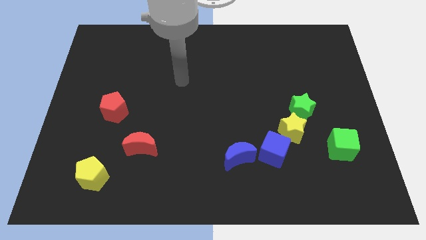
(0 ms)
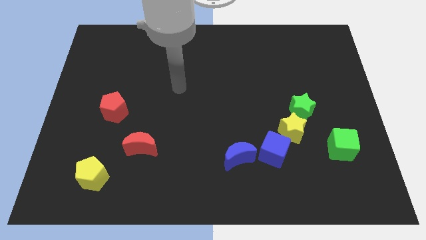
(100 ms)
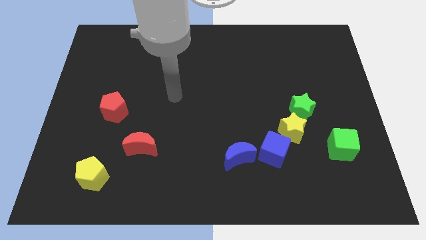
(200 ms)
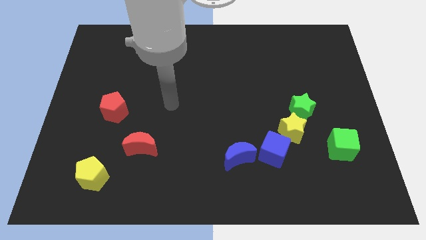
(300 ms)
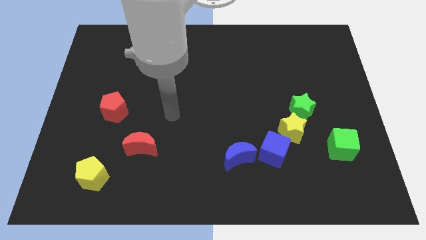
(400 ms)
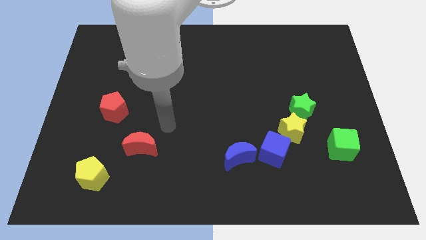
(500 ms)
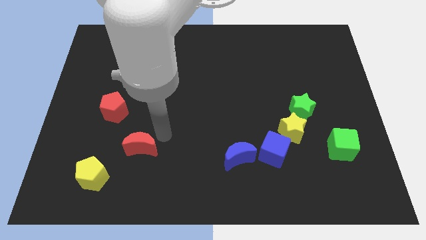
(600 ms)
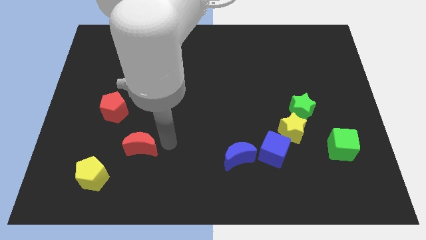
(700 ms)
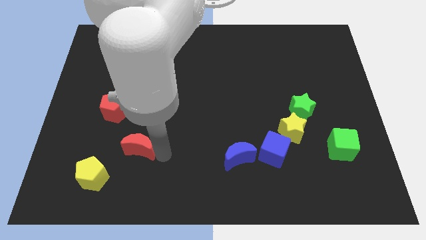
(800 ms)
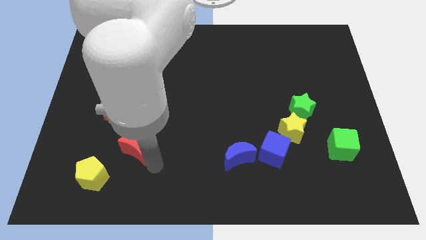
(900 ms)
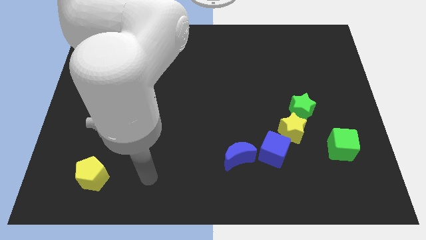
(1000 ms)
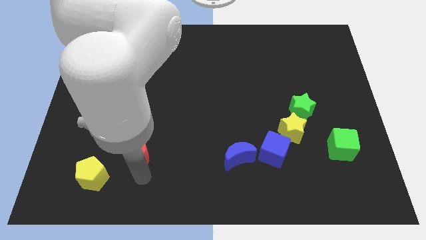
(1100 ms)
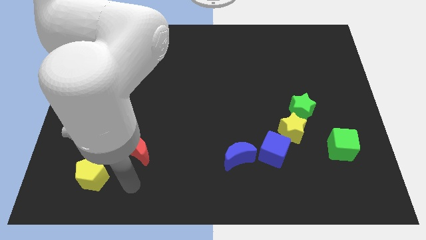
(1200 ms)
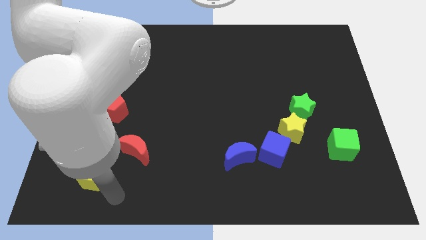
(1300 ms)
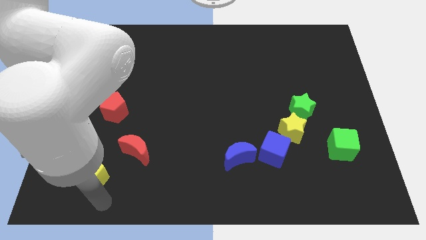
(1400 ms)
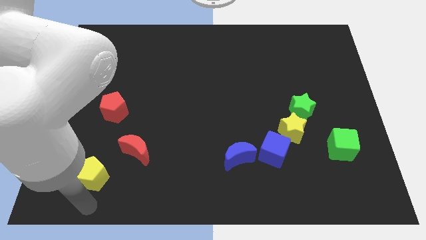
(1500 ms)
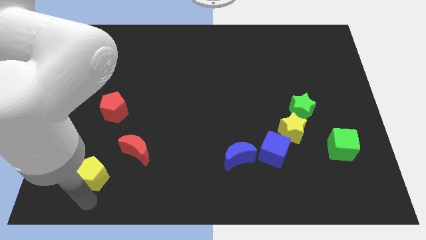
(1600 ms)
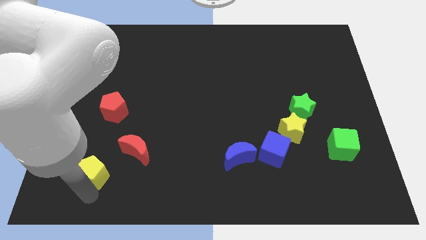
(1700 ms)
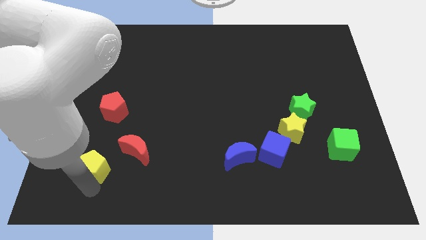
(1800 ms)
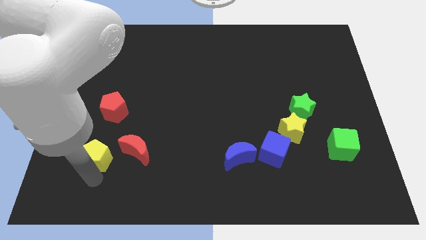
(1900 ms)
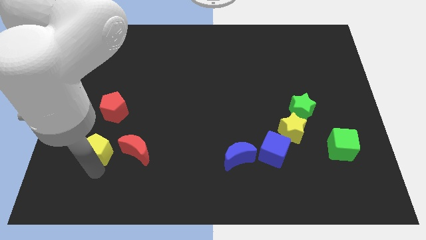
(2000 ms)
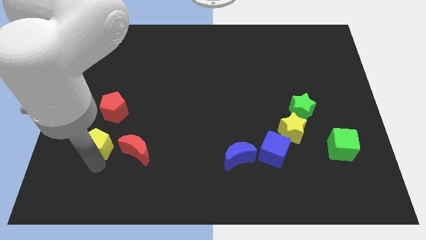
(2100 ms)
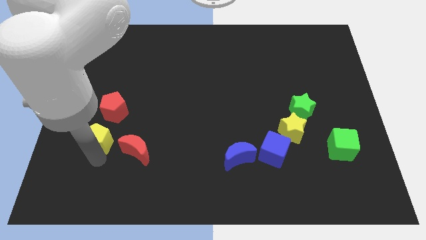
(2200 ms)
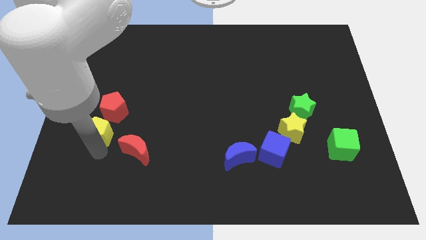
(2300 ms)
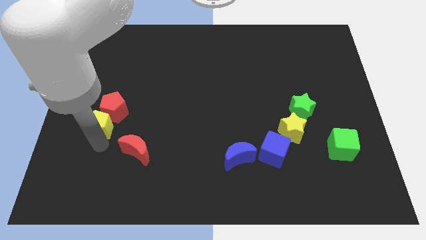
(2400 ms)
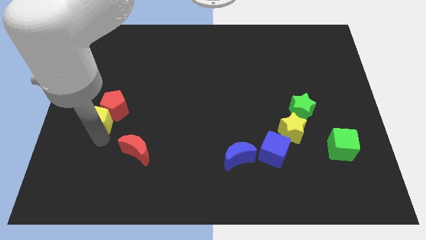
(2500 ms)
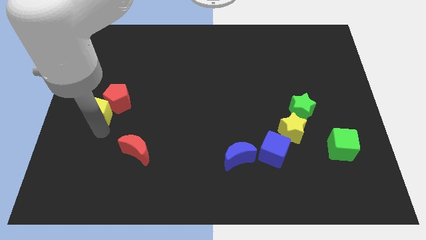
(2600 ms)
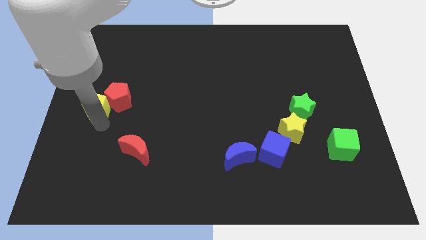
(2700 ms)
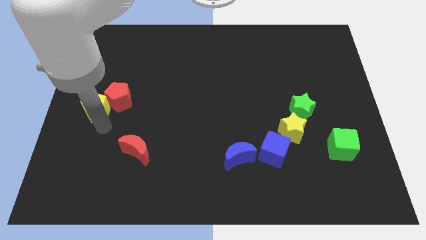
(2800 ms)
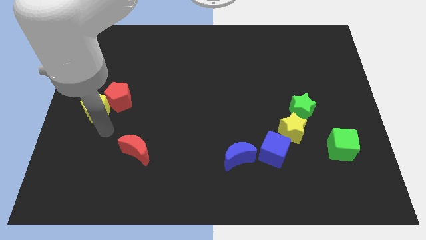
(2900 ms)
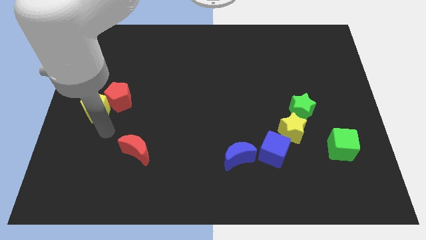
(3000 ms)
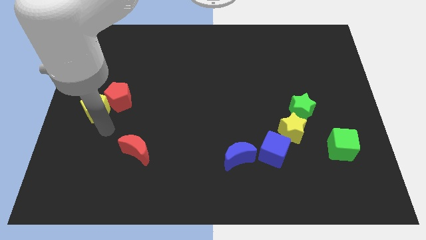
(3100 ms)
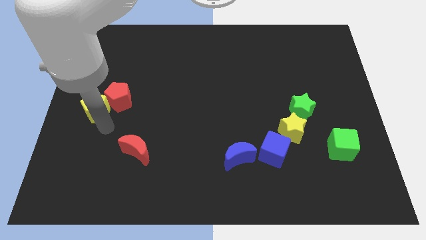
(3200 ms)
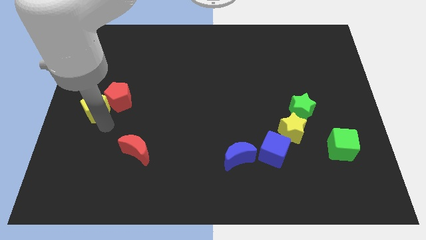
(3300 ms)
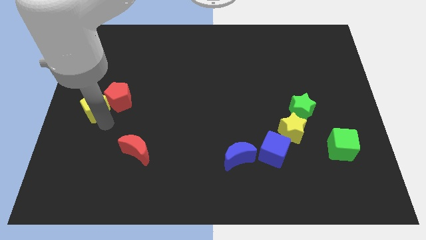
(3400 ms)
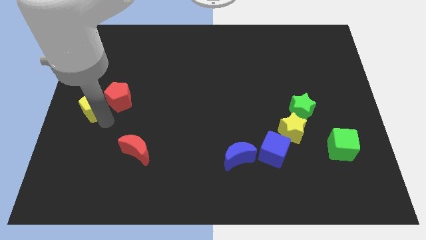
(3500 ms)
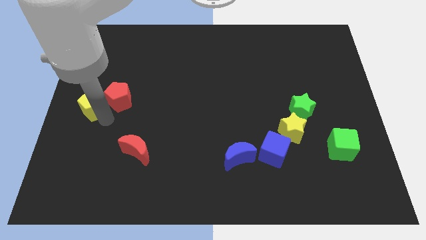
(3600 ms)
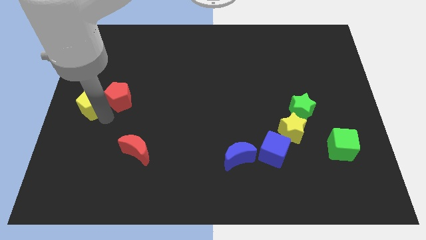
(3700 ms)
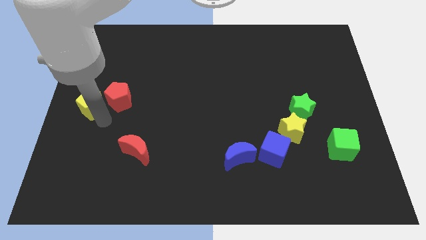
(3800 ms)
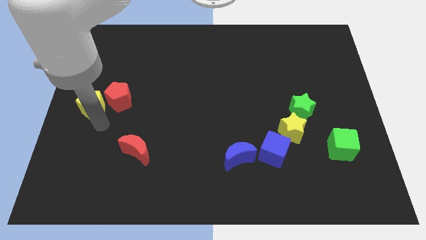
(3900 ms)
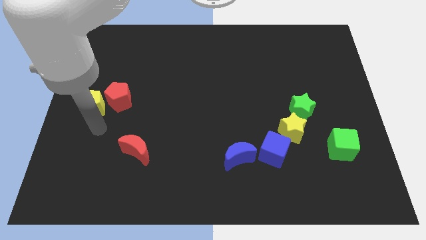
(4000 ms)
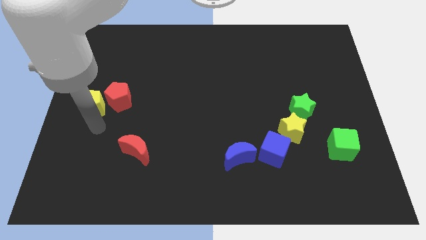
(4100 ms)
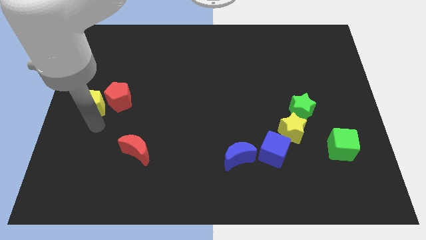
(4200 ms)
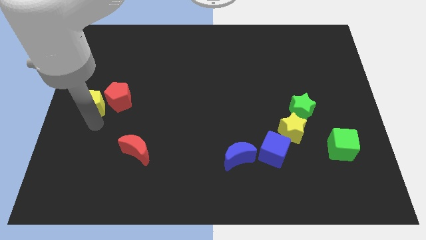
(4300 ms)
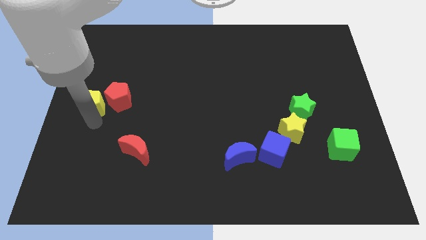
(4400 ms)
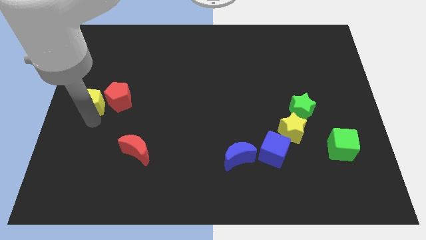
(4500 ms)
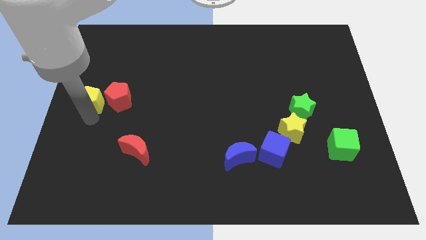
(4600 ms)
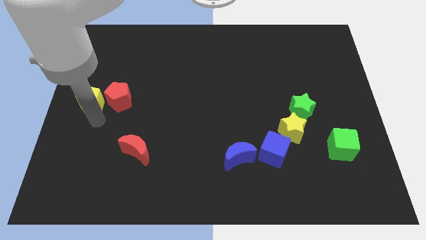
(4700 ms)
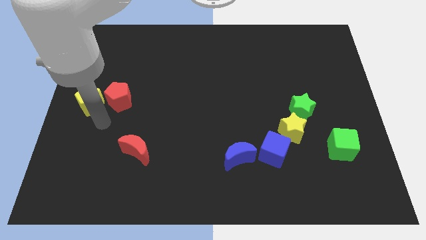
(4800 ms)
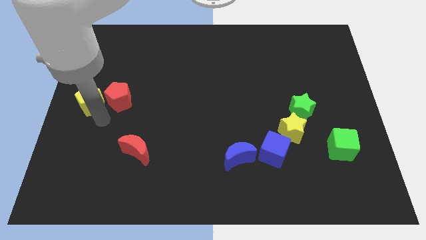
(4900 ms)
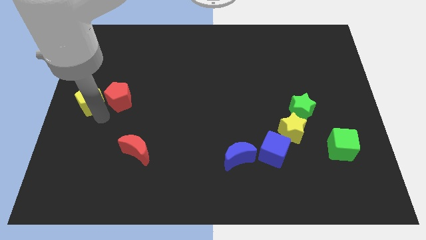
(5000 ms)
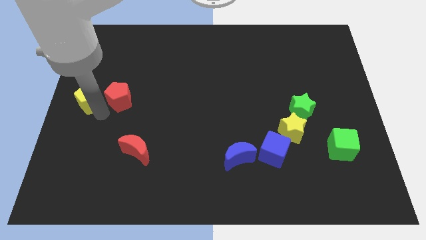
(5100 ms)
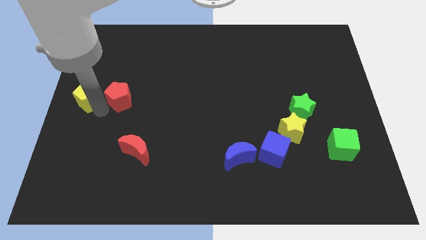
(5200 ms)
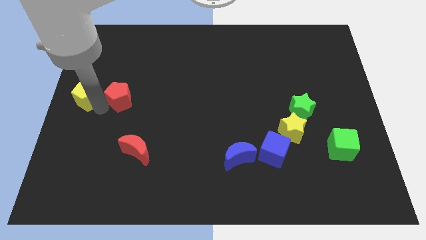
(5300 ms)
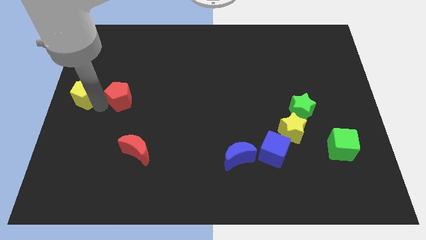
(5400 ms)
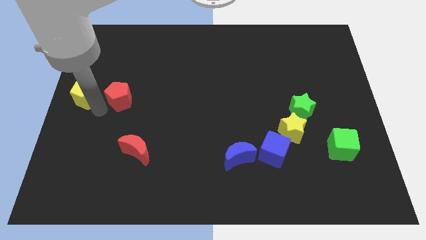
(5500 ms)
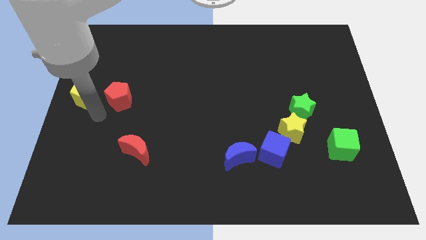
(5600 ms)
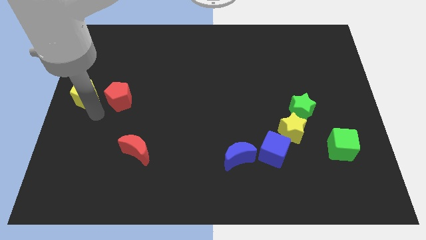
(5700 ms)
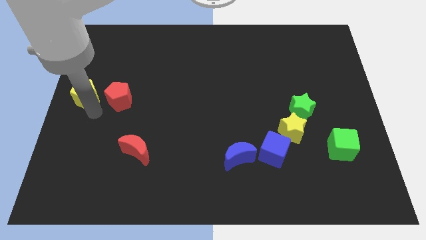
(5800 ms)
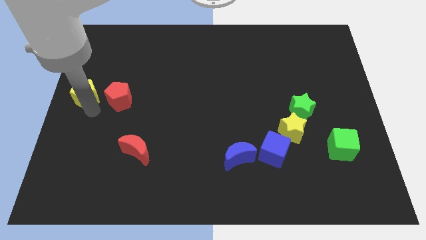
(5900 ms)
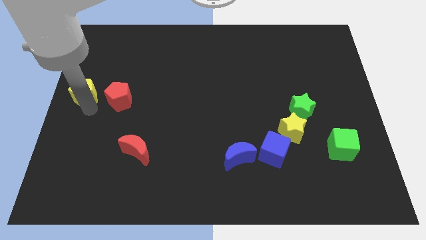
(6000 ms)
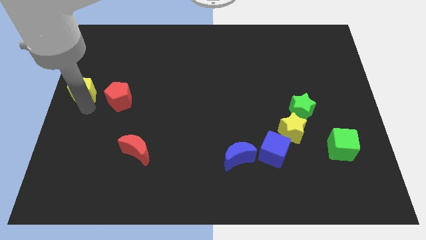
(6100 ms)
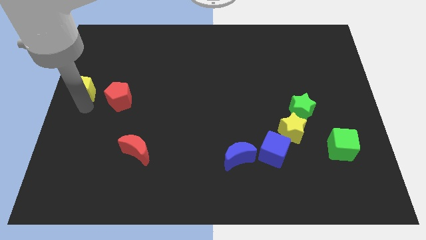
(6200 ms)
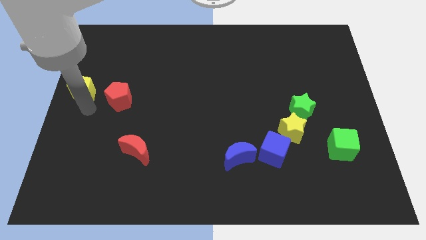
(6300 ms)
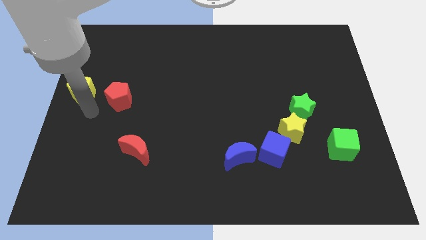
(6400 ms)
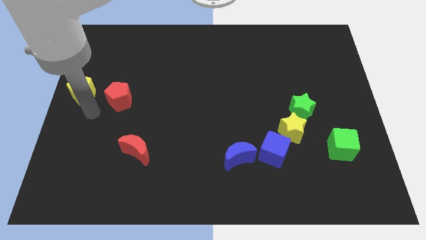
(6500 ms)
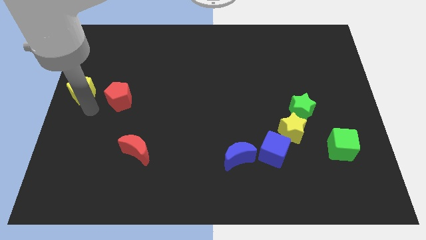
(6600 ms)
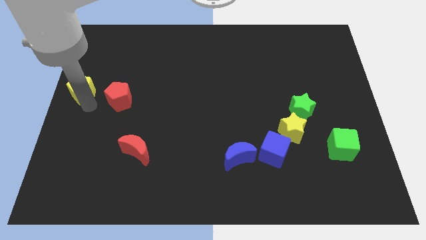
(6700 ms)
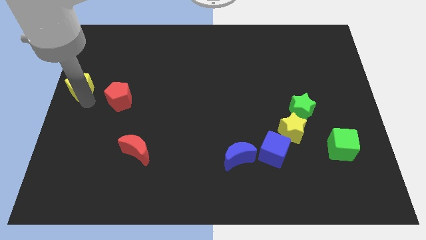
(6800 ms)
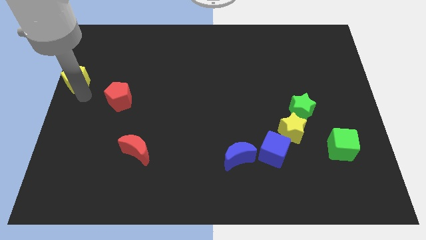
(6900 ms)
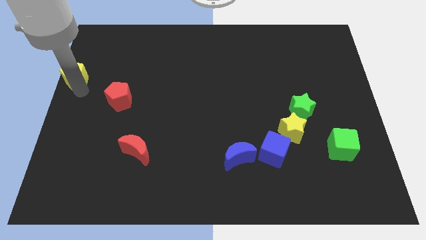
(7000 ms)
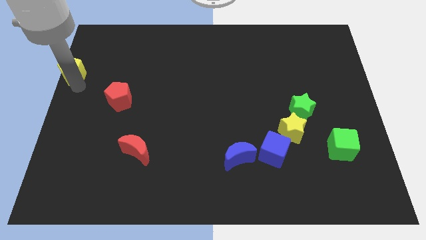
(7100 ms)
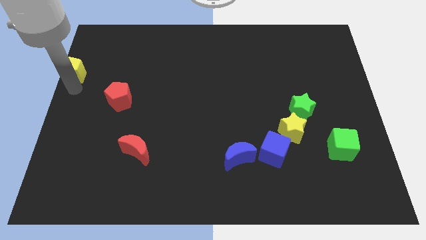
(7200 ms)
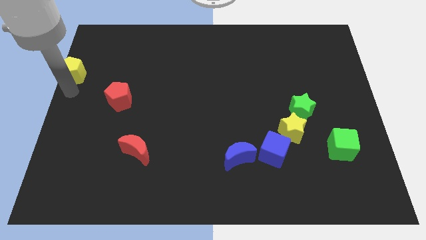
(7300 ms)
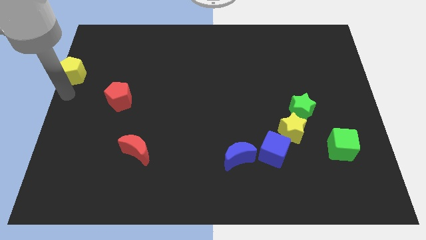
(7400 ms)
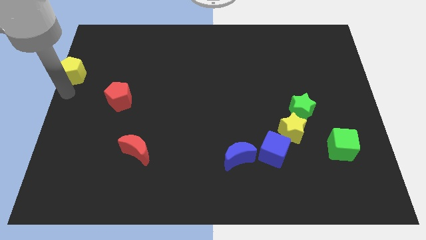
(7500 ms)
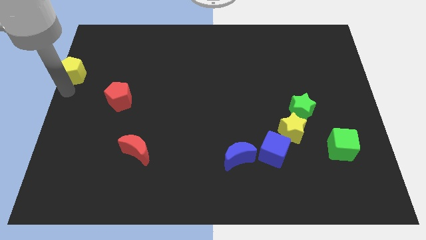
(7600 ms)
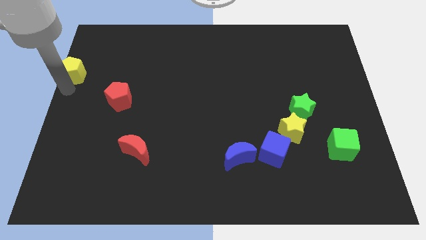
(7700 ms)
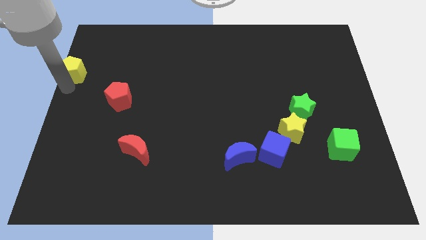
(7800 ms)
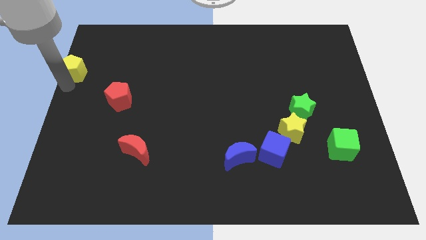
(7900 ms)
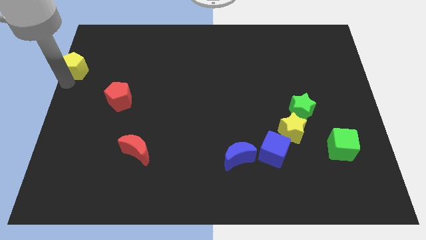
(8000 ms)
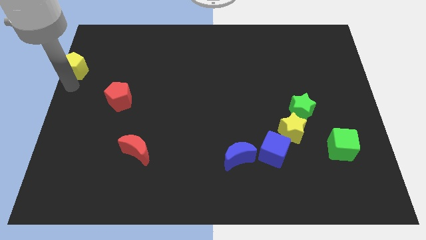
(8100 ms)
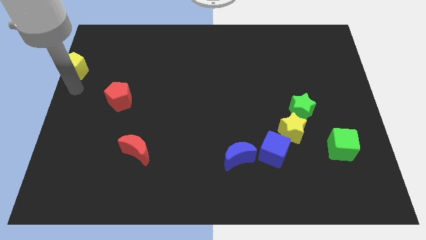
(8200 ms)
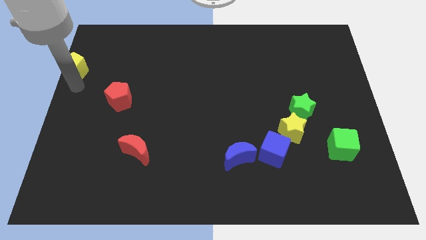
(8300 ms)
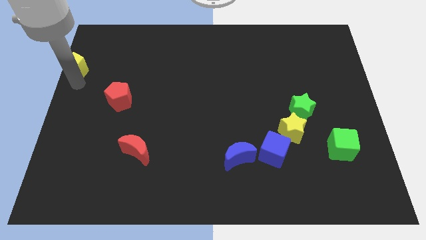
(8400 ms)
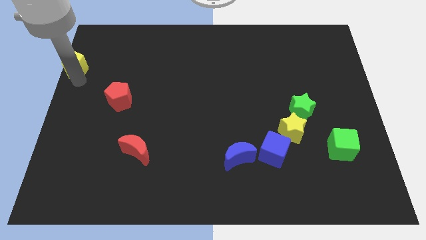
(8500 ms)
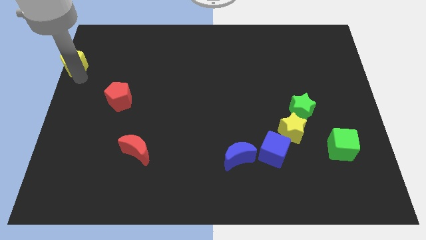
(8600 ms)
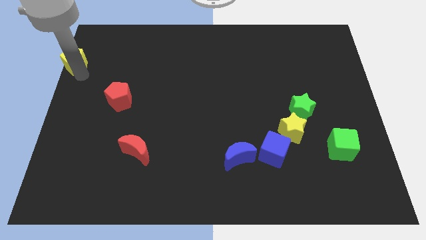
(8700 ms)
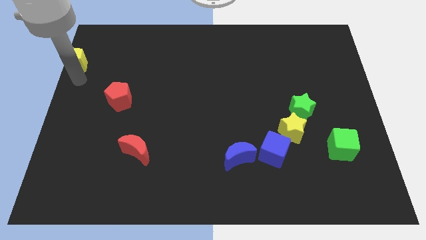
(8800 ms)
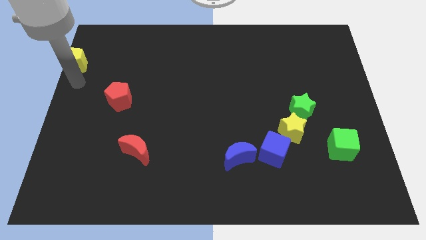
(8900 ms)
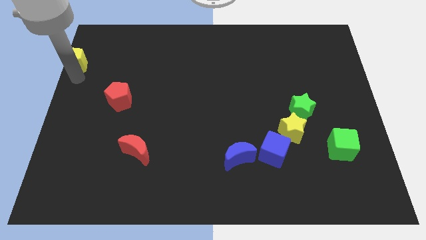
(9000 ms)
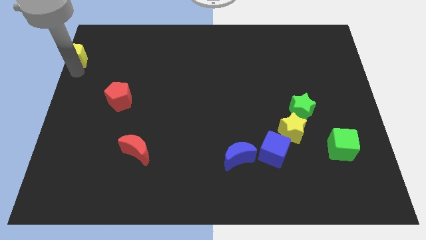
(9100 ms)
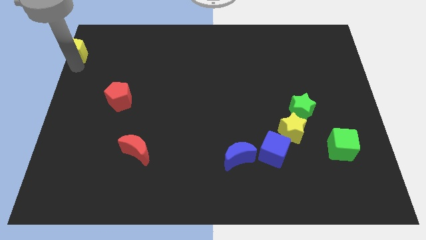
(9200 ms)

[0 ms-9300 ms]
put the yellow pentagon to the top left
